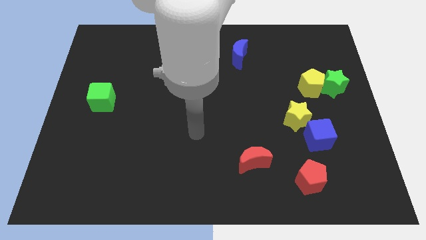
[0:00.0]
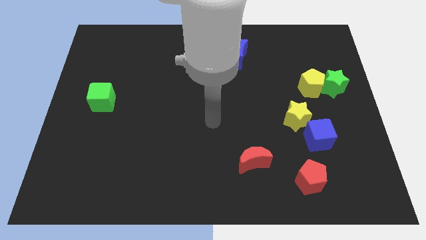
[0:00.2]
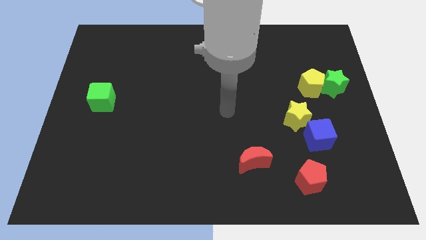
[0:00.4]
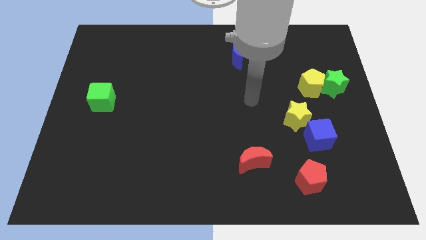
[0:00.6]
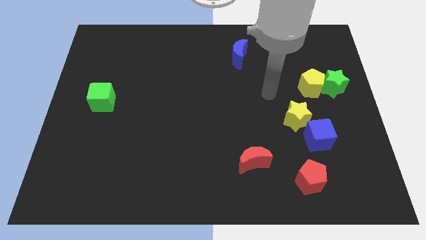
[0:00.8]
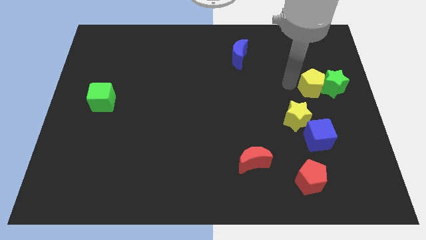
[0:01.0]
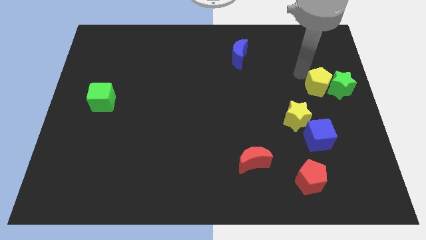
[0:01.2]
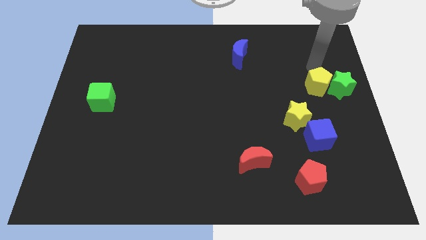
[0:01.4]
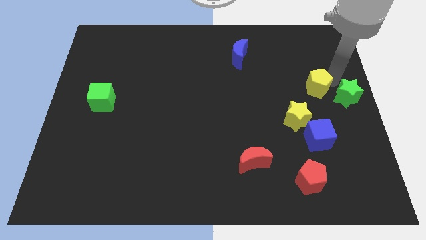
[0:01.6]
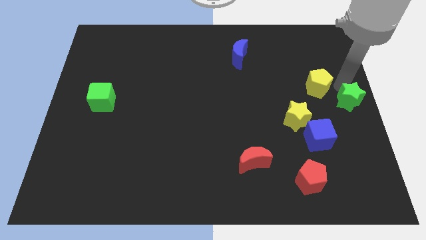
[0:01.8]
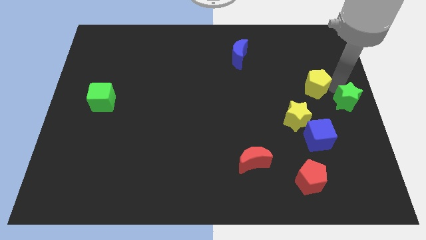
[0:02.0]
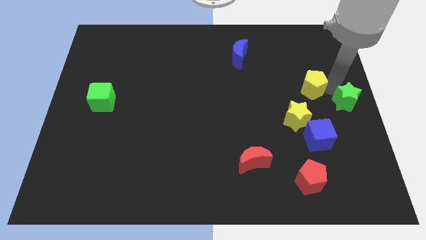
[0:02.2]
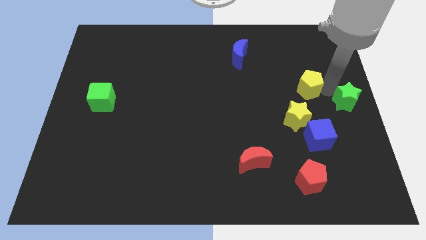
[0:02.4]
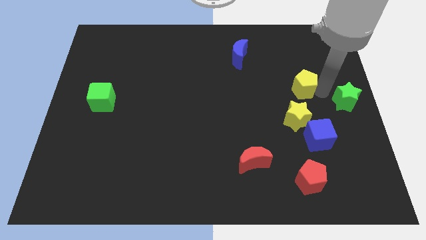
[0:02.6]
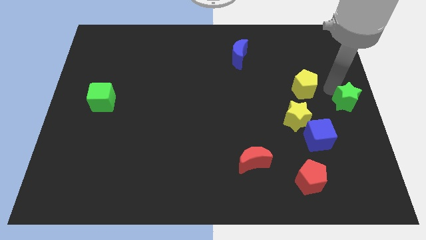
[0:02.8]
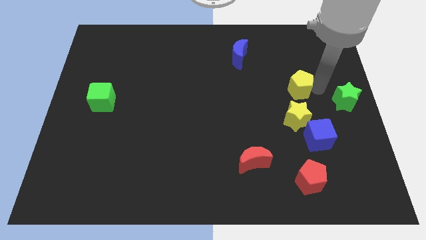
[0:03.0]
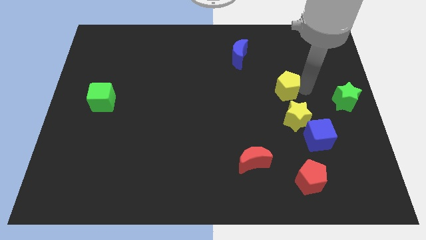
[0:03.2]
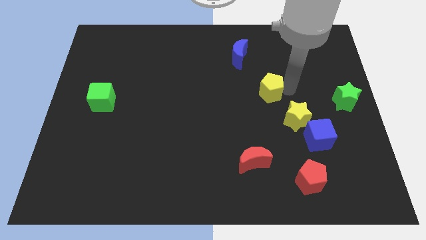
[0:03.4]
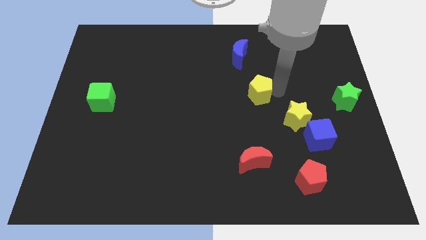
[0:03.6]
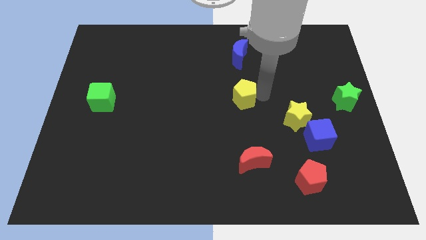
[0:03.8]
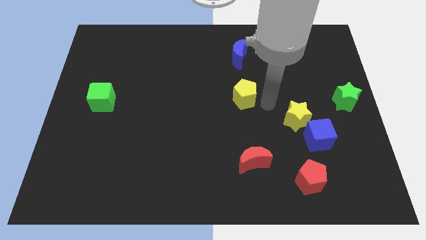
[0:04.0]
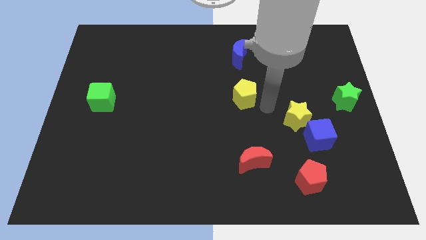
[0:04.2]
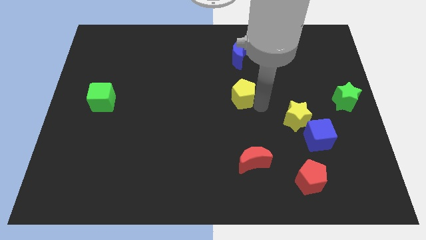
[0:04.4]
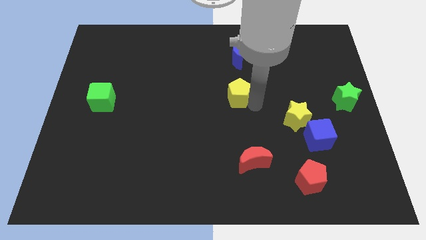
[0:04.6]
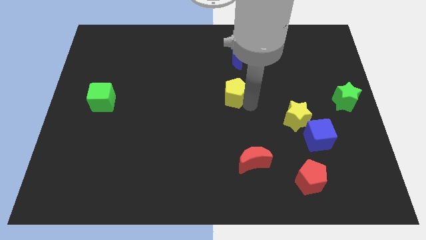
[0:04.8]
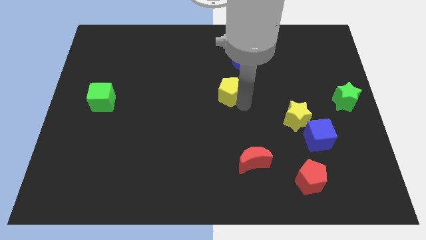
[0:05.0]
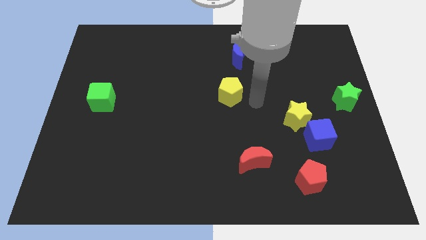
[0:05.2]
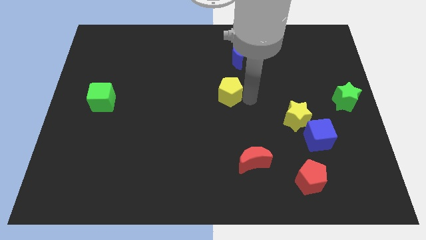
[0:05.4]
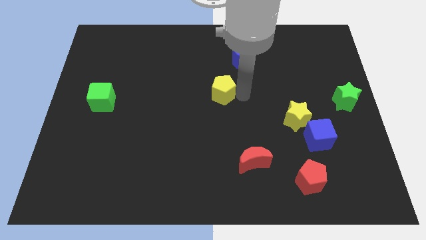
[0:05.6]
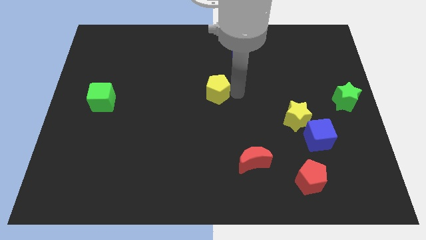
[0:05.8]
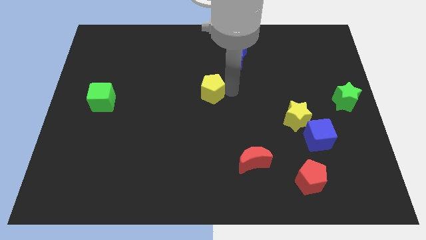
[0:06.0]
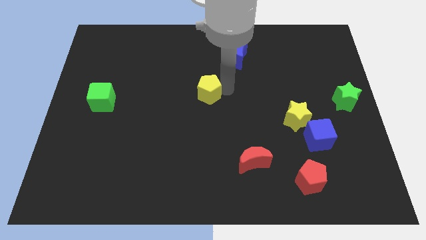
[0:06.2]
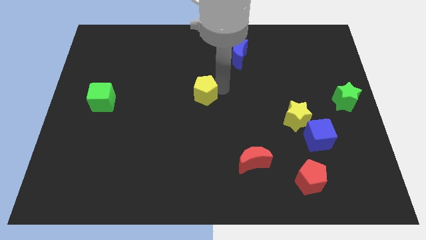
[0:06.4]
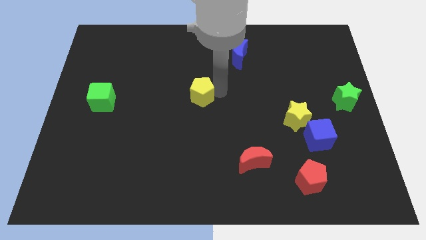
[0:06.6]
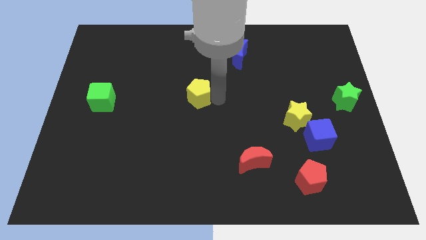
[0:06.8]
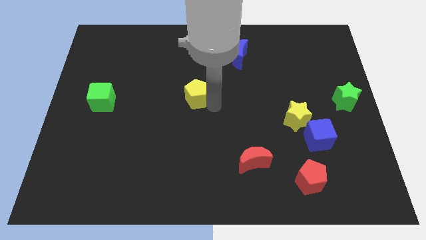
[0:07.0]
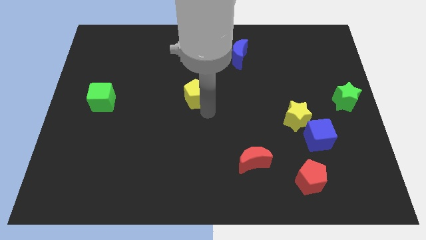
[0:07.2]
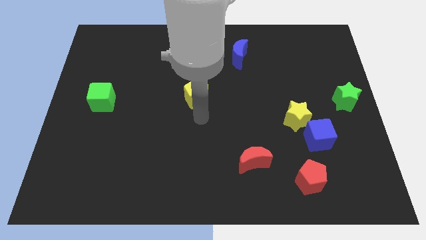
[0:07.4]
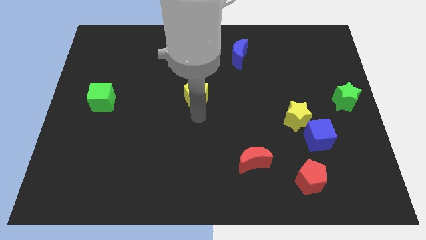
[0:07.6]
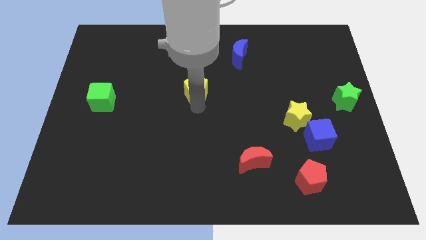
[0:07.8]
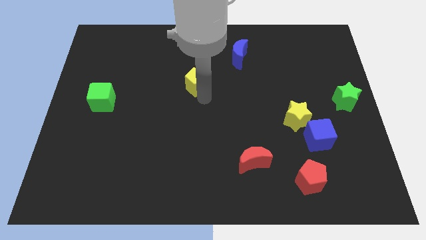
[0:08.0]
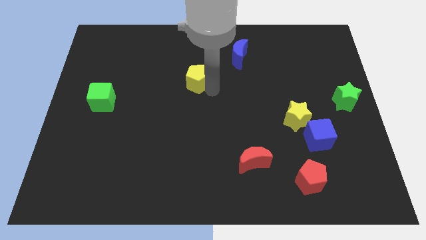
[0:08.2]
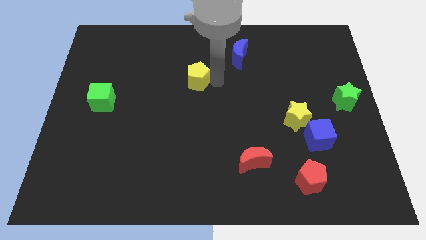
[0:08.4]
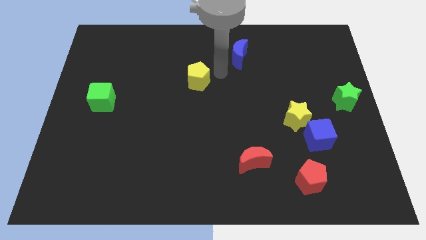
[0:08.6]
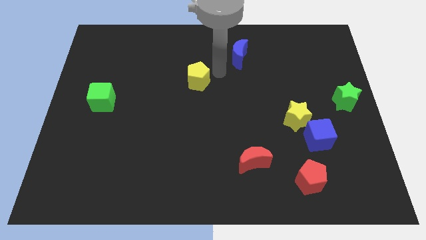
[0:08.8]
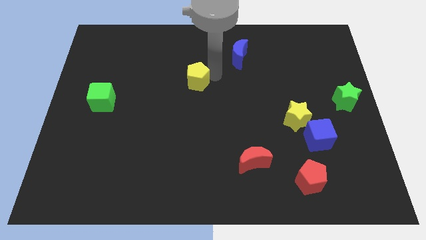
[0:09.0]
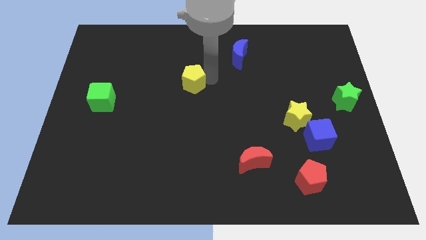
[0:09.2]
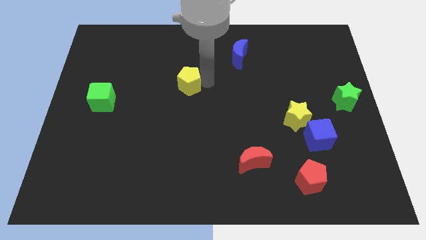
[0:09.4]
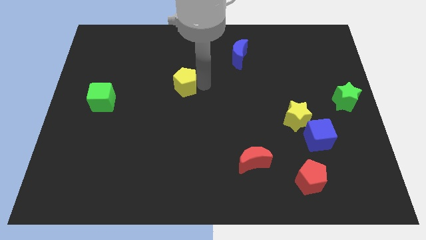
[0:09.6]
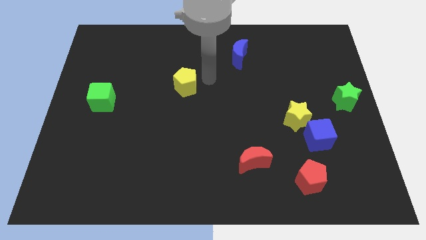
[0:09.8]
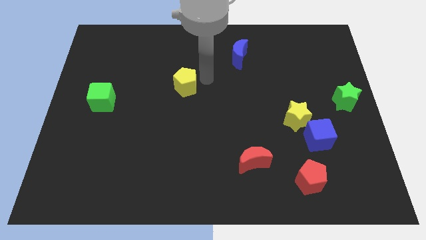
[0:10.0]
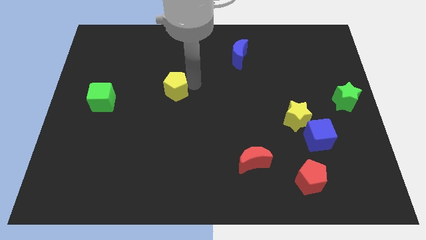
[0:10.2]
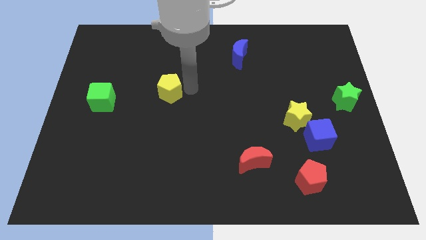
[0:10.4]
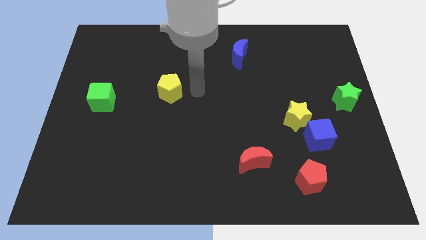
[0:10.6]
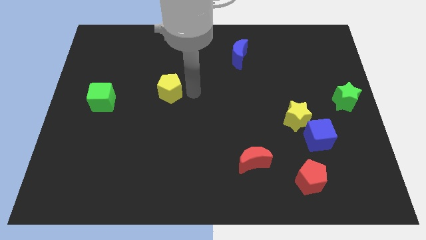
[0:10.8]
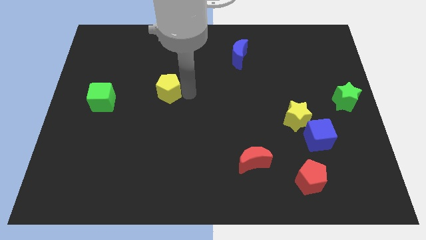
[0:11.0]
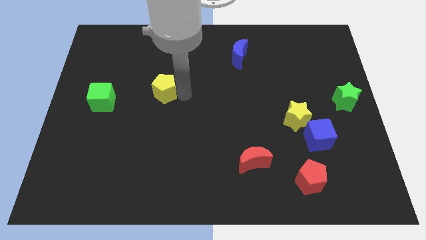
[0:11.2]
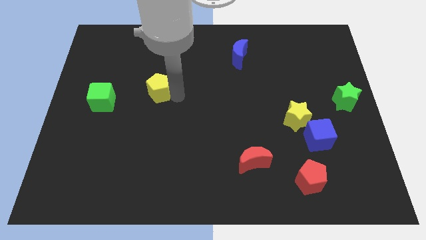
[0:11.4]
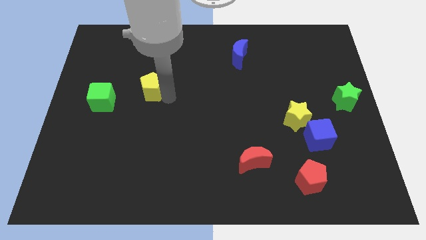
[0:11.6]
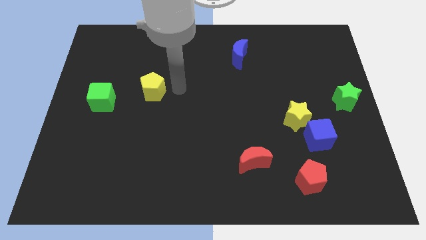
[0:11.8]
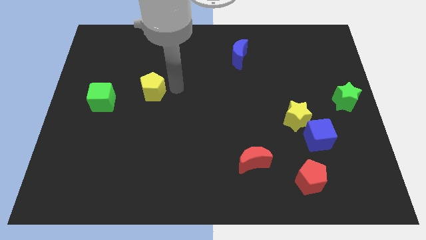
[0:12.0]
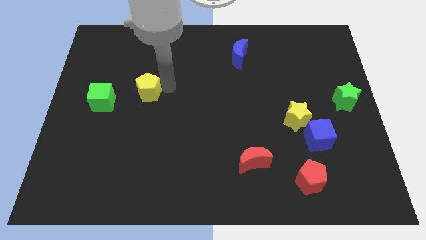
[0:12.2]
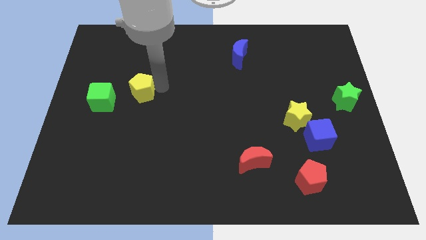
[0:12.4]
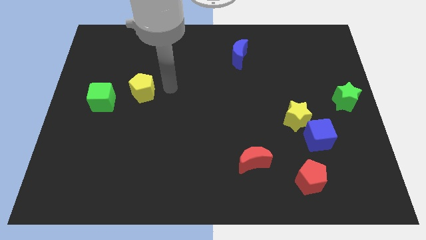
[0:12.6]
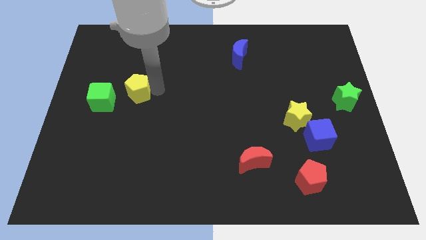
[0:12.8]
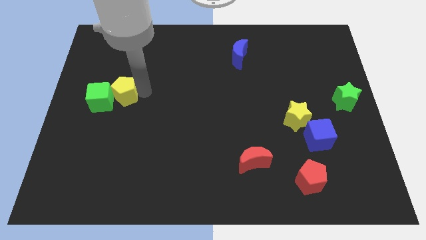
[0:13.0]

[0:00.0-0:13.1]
put the yellow pentagon next to the green cube
